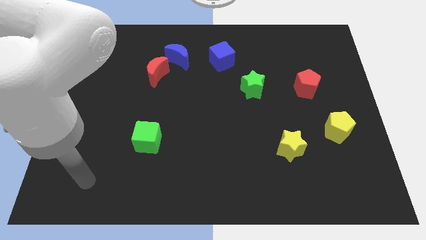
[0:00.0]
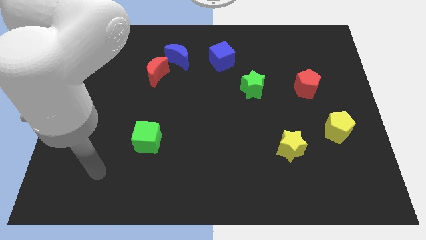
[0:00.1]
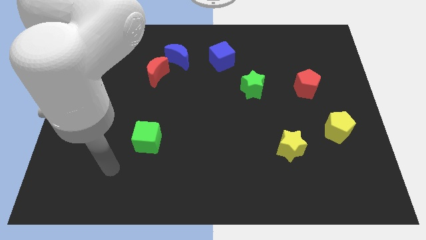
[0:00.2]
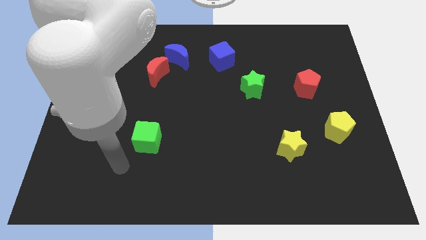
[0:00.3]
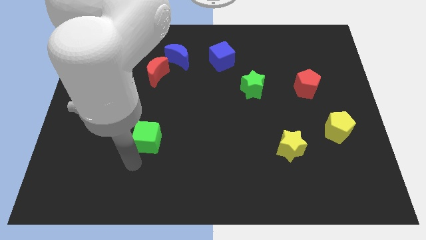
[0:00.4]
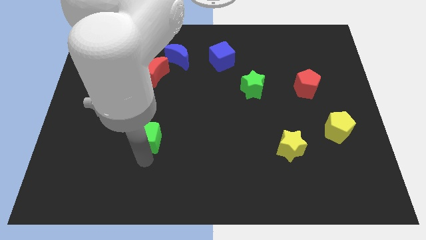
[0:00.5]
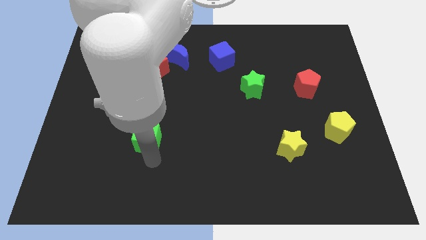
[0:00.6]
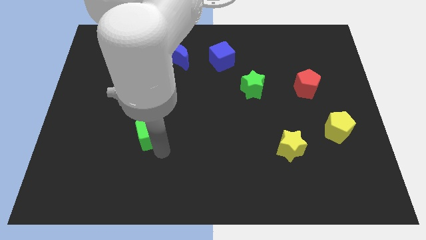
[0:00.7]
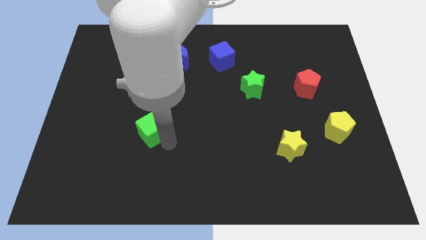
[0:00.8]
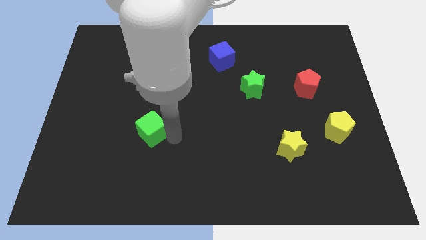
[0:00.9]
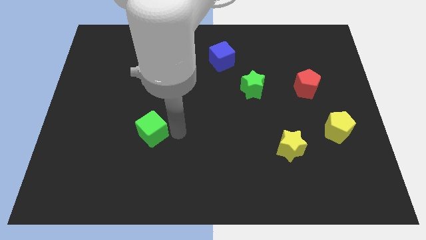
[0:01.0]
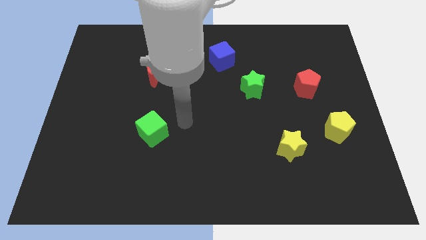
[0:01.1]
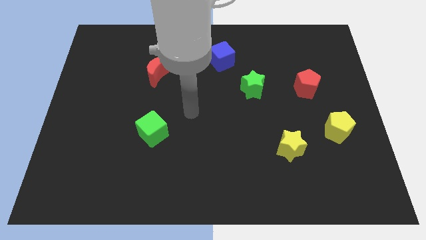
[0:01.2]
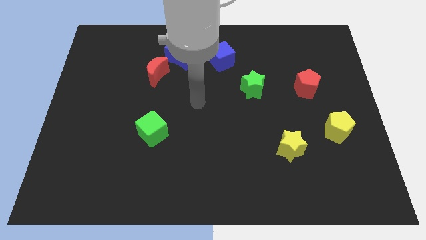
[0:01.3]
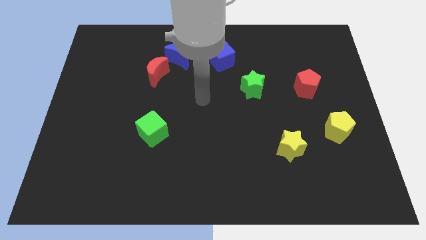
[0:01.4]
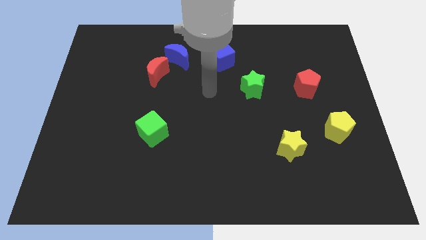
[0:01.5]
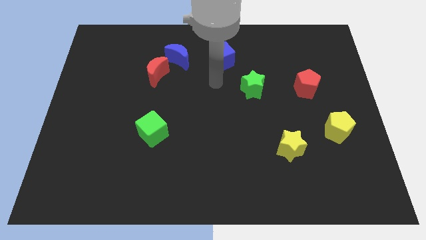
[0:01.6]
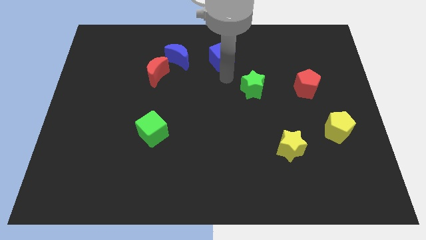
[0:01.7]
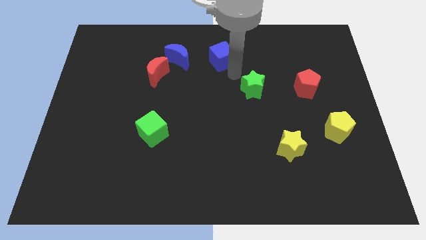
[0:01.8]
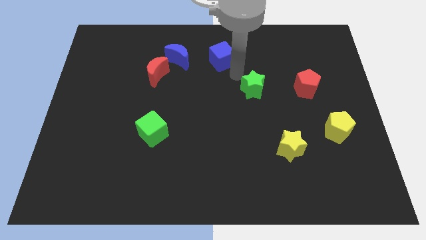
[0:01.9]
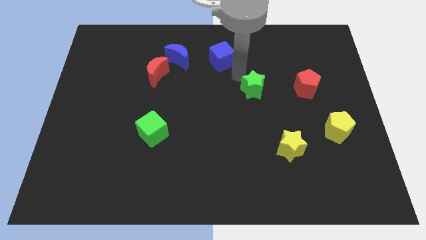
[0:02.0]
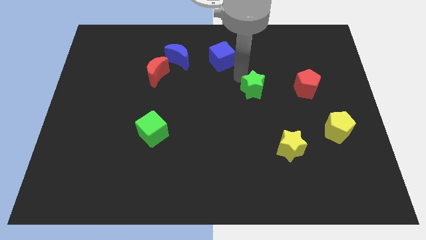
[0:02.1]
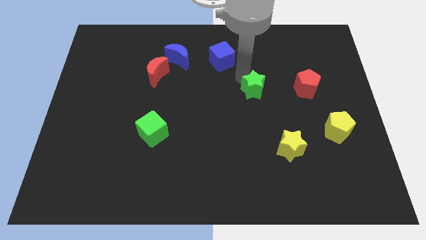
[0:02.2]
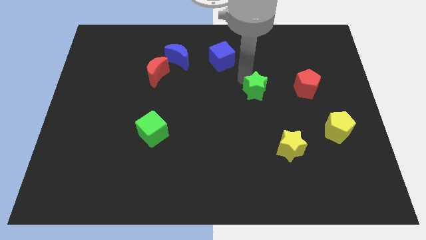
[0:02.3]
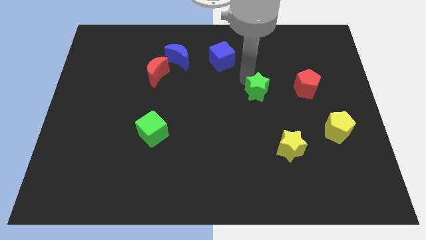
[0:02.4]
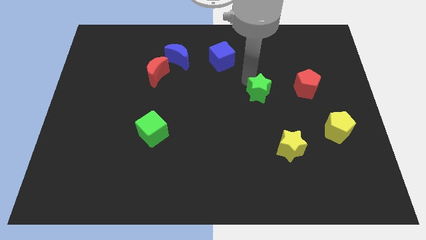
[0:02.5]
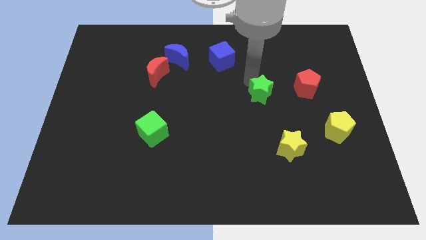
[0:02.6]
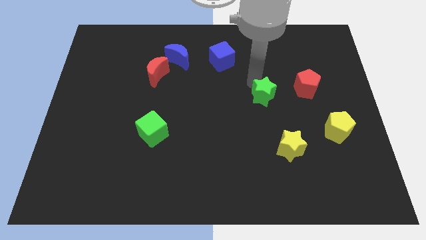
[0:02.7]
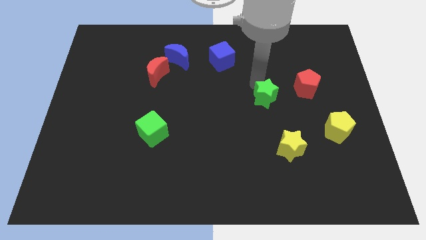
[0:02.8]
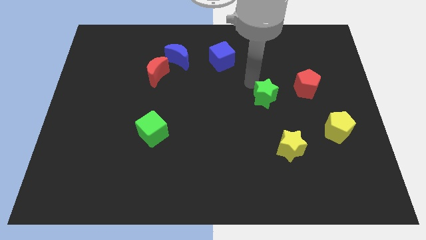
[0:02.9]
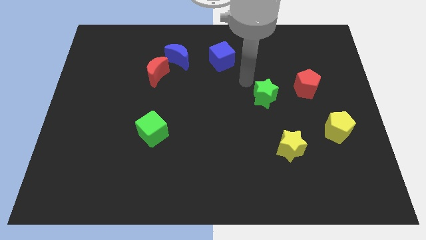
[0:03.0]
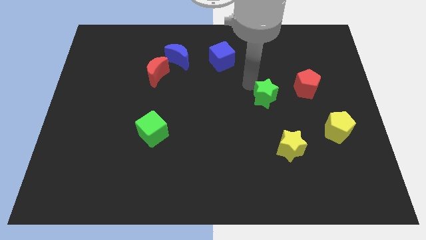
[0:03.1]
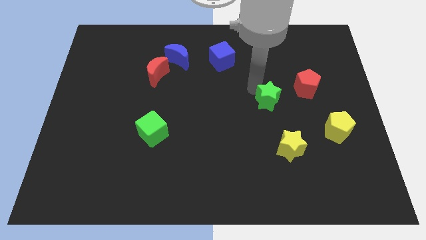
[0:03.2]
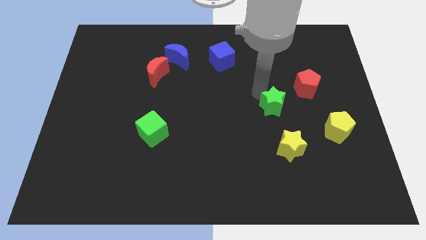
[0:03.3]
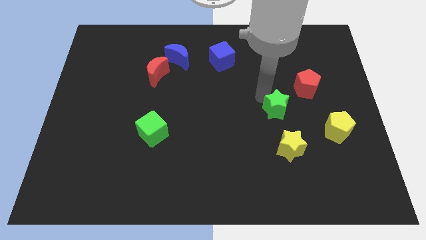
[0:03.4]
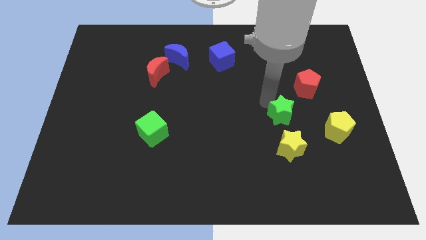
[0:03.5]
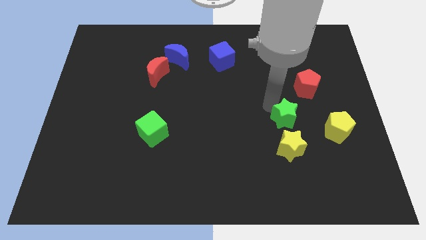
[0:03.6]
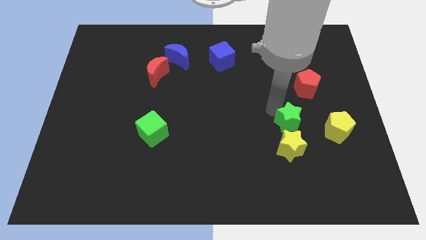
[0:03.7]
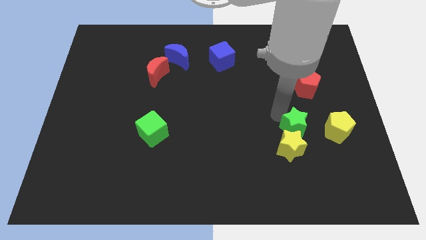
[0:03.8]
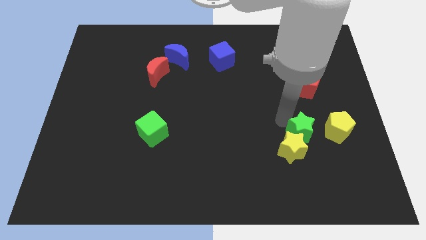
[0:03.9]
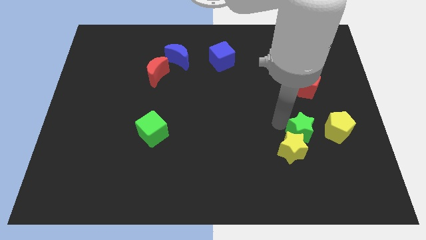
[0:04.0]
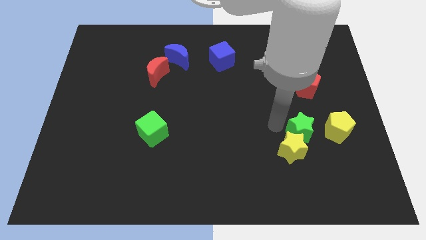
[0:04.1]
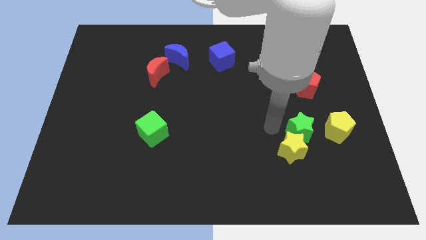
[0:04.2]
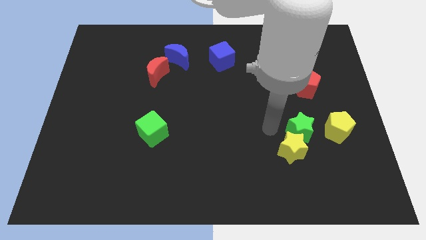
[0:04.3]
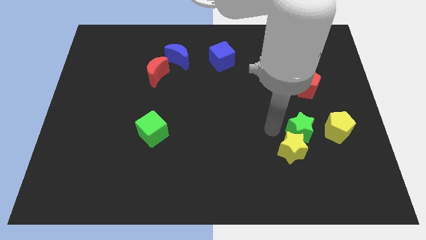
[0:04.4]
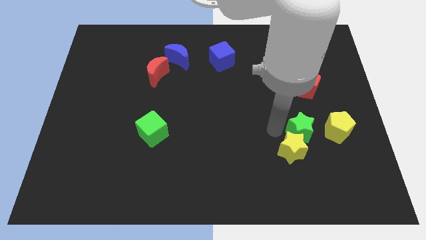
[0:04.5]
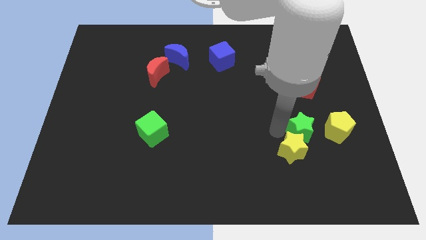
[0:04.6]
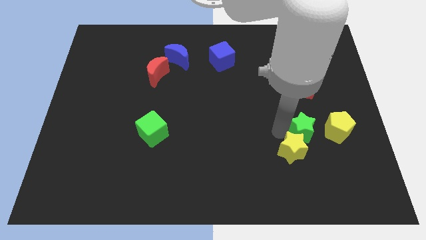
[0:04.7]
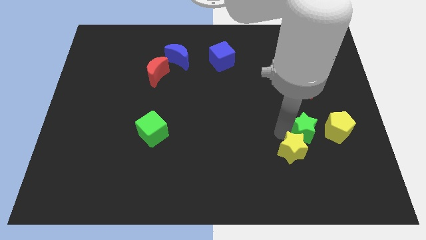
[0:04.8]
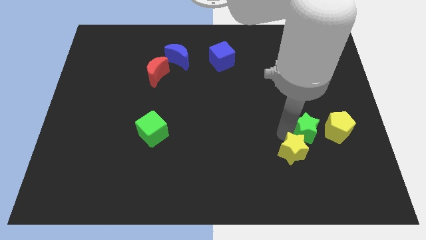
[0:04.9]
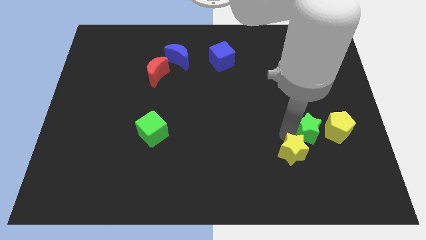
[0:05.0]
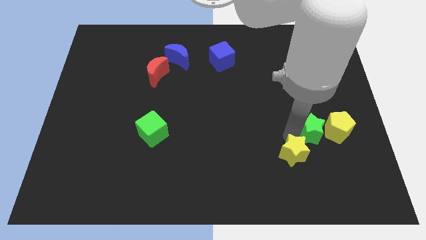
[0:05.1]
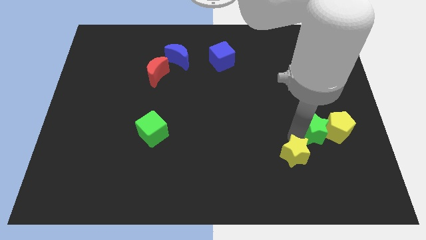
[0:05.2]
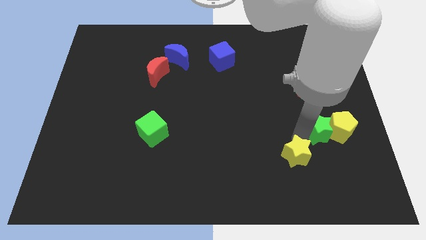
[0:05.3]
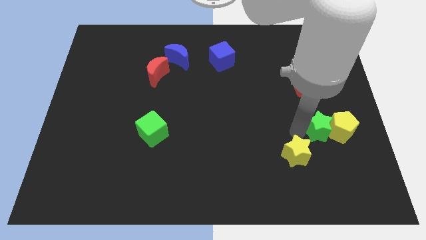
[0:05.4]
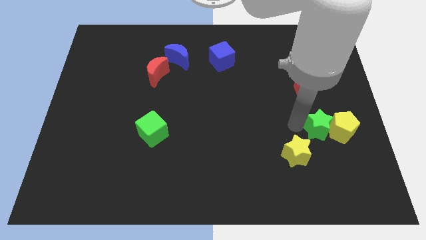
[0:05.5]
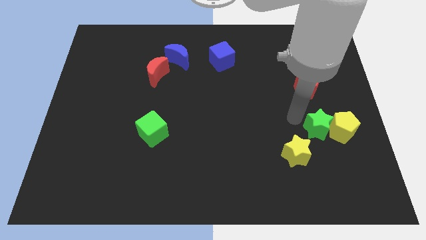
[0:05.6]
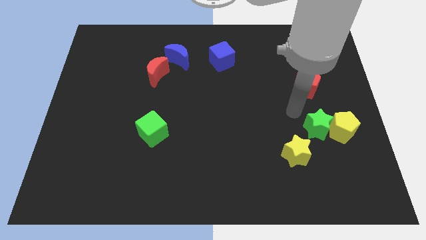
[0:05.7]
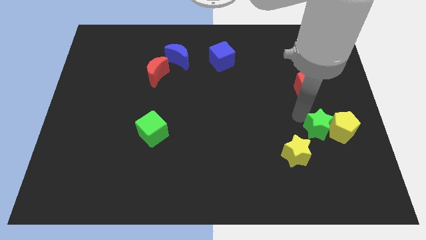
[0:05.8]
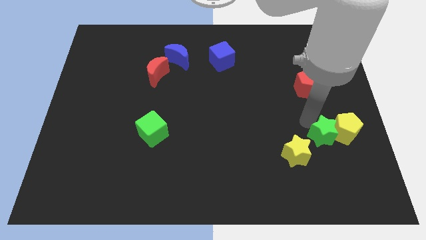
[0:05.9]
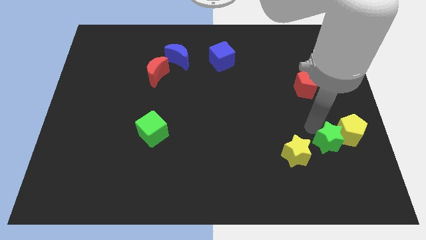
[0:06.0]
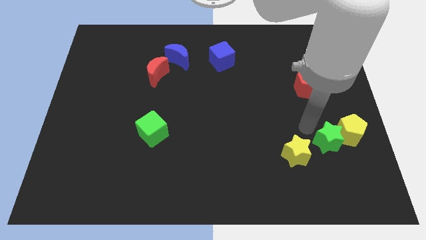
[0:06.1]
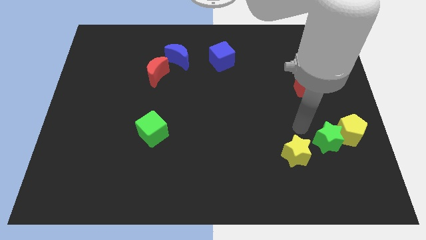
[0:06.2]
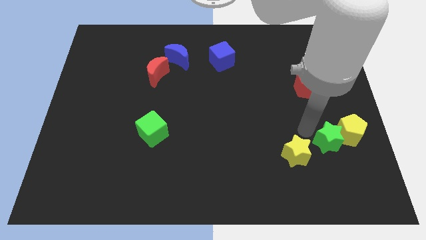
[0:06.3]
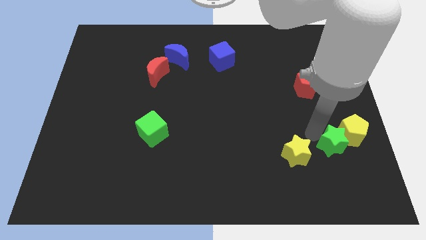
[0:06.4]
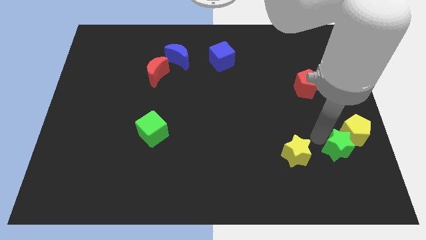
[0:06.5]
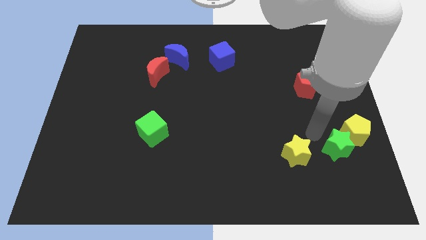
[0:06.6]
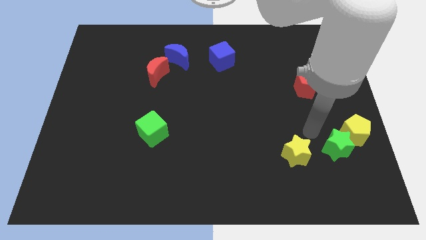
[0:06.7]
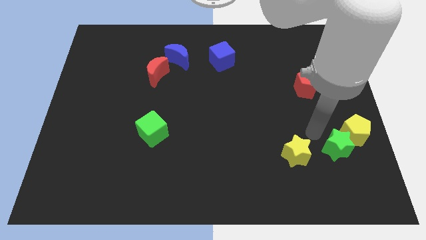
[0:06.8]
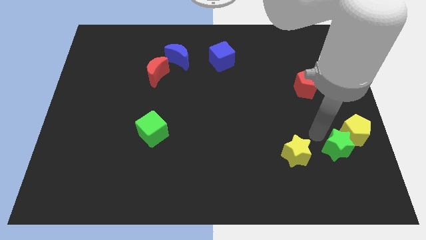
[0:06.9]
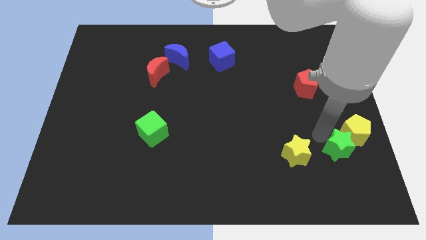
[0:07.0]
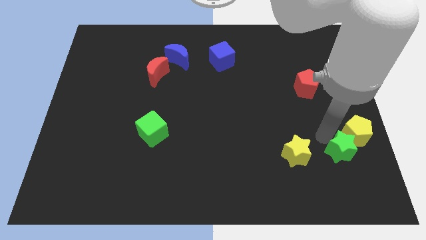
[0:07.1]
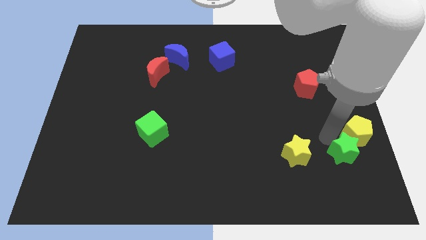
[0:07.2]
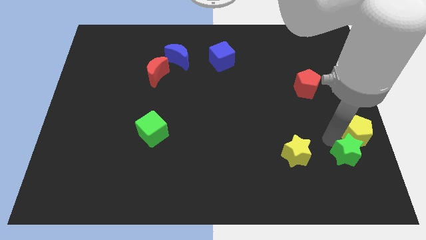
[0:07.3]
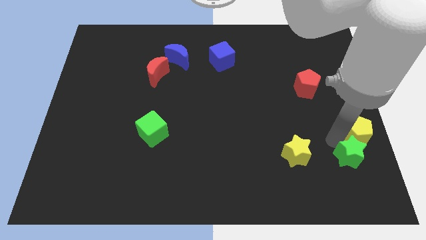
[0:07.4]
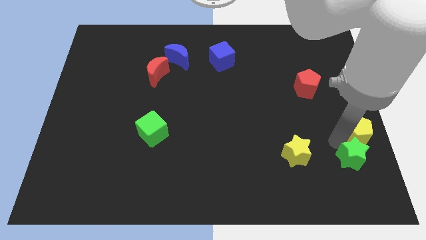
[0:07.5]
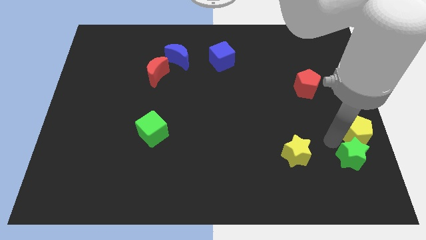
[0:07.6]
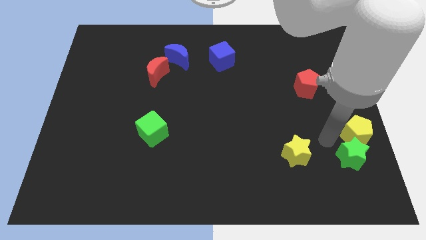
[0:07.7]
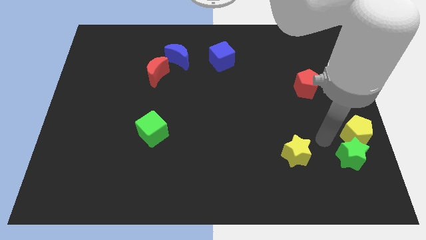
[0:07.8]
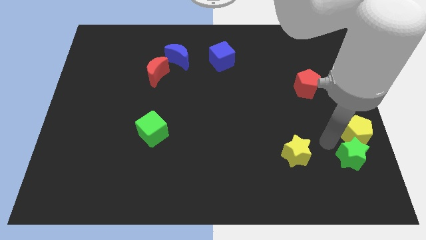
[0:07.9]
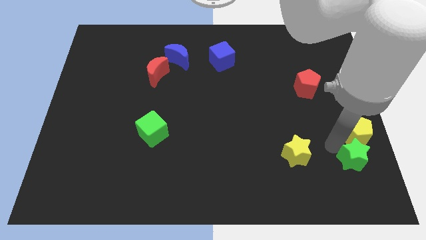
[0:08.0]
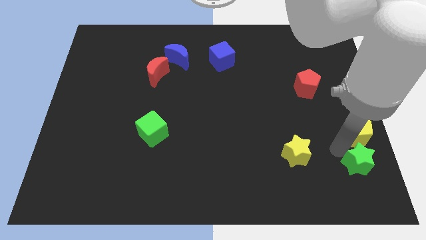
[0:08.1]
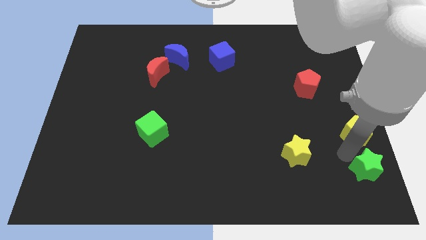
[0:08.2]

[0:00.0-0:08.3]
push the green star to the bottom right of the board
